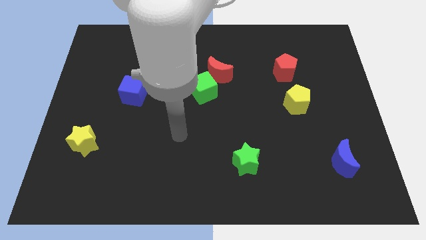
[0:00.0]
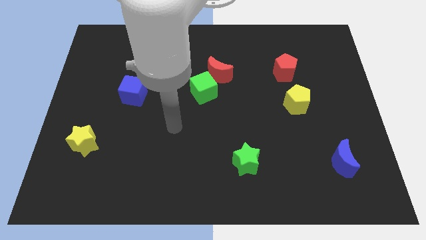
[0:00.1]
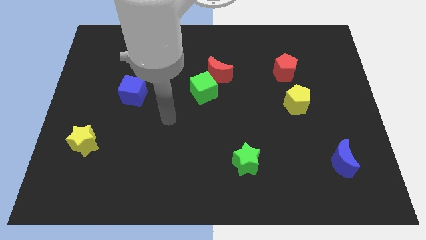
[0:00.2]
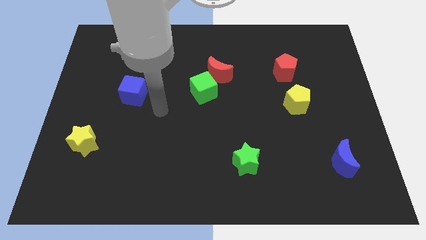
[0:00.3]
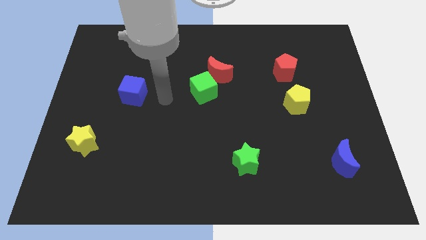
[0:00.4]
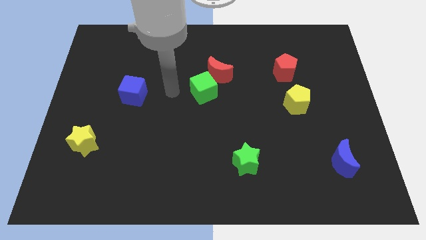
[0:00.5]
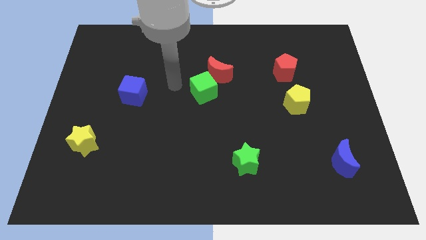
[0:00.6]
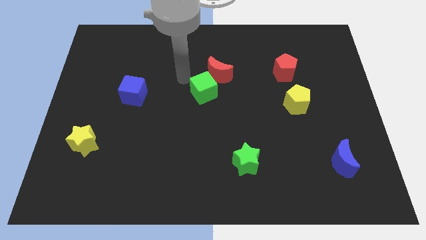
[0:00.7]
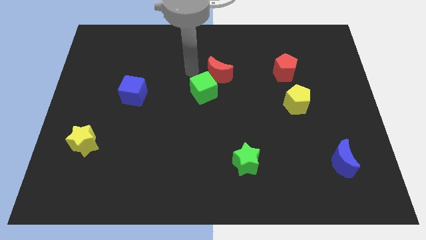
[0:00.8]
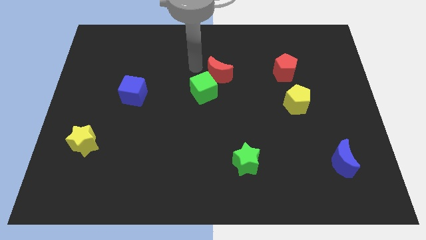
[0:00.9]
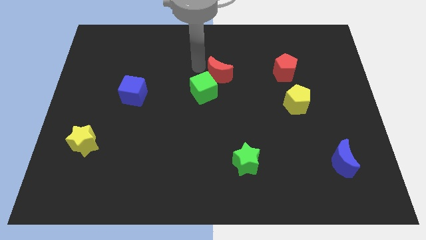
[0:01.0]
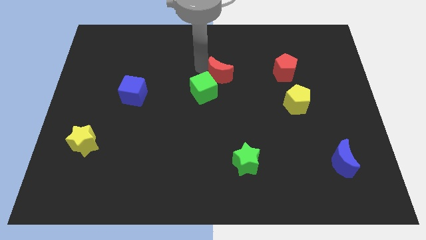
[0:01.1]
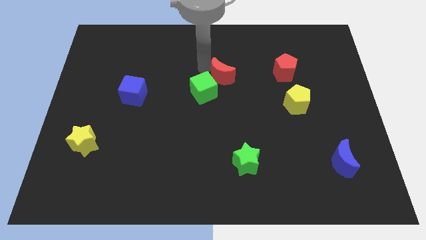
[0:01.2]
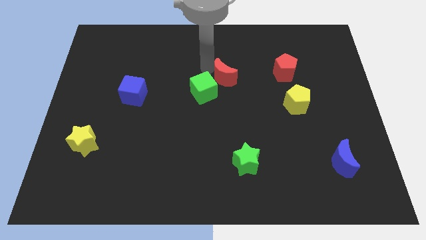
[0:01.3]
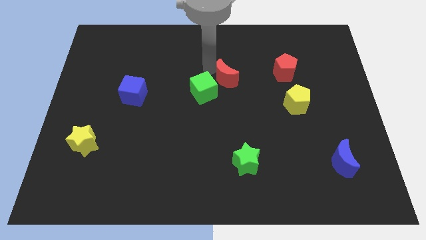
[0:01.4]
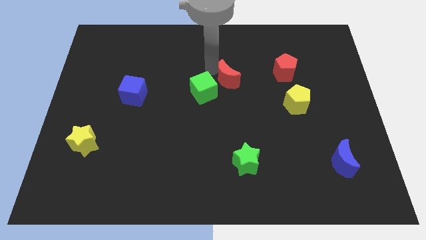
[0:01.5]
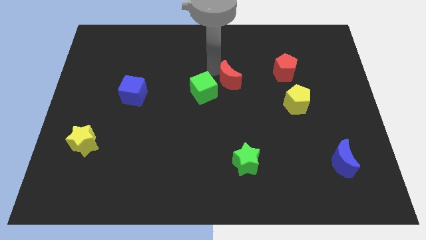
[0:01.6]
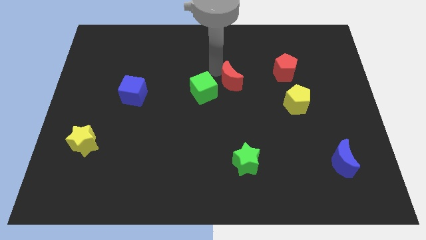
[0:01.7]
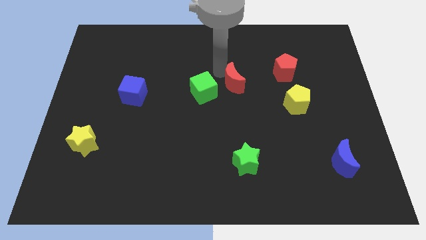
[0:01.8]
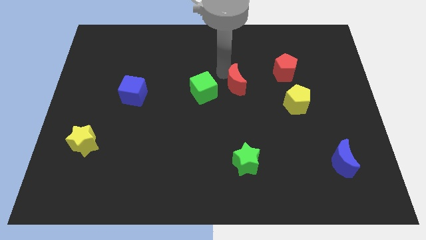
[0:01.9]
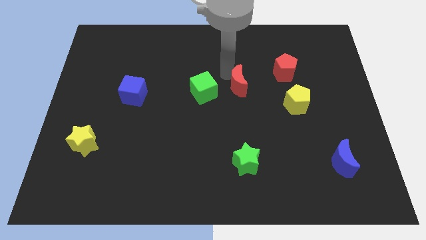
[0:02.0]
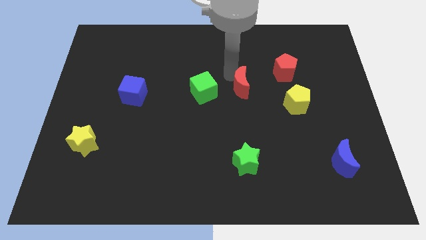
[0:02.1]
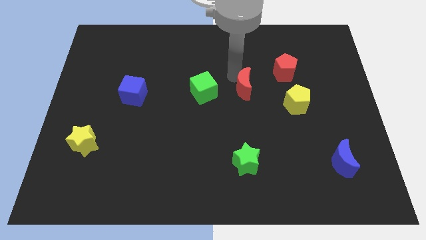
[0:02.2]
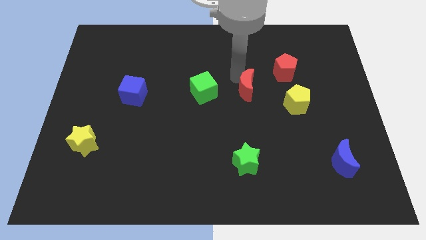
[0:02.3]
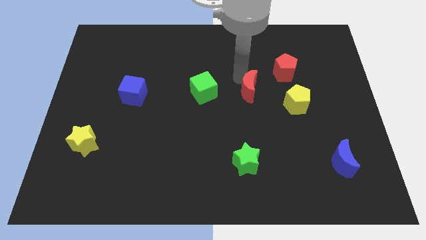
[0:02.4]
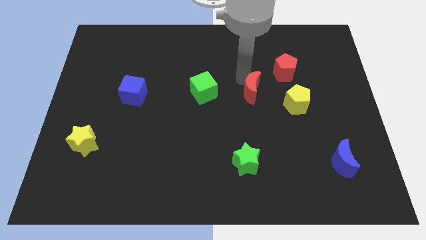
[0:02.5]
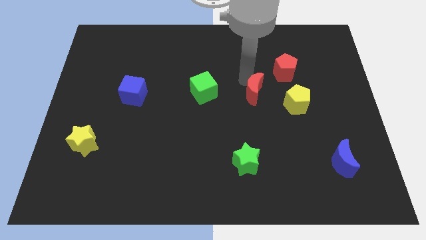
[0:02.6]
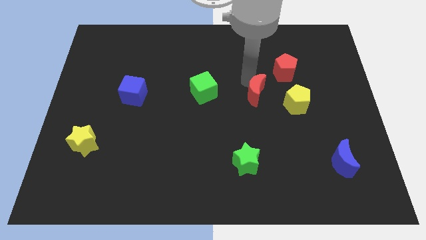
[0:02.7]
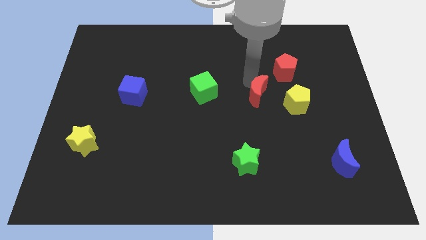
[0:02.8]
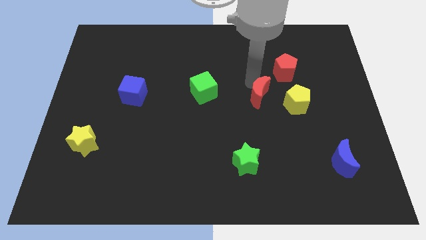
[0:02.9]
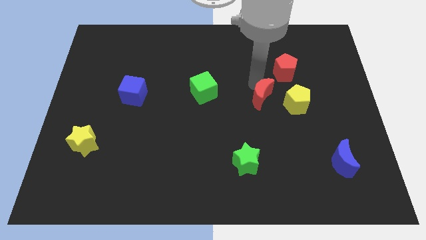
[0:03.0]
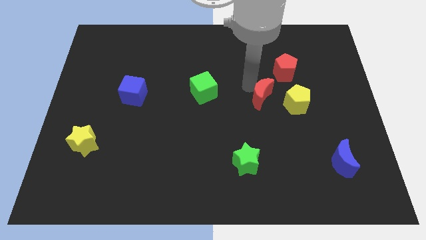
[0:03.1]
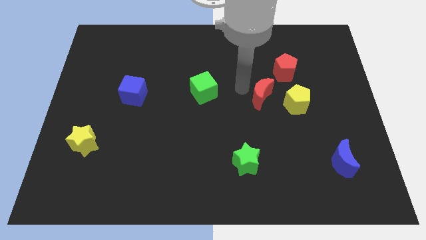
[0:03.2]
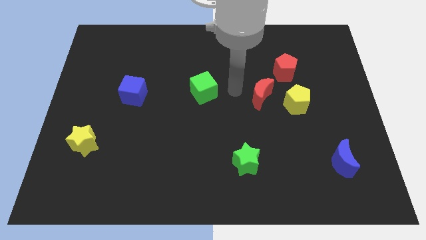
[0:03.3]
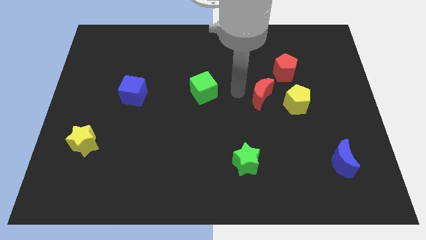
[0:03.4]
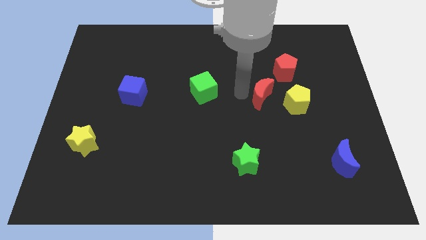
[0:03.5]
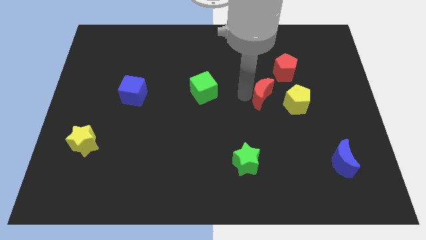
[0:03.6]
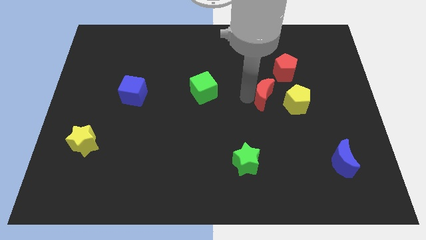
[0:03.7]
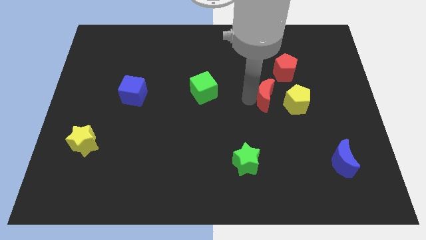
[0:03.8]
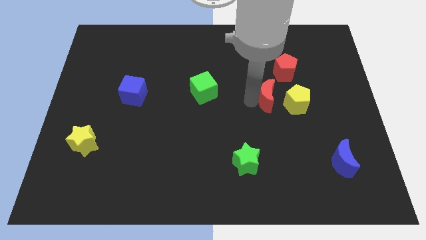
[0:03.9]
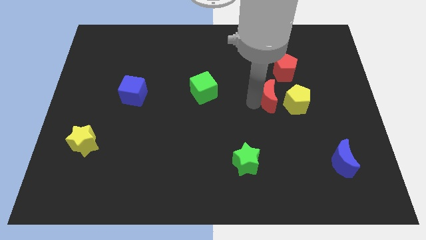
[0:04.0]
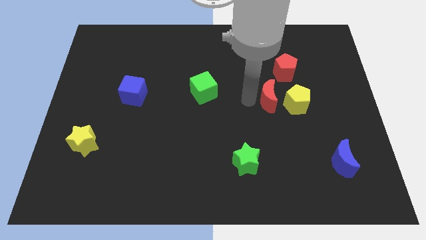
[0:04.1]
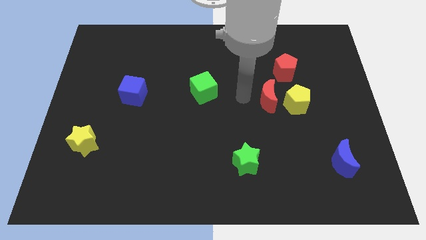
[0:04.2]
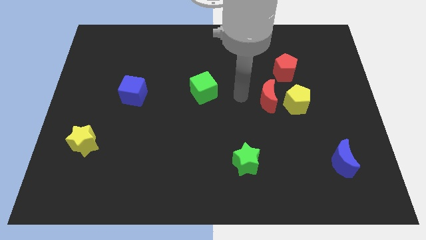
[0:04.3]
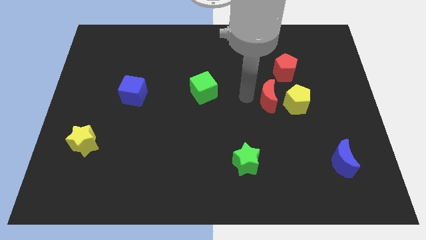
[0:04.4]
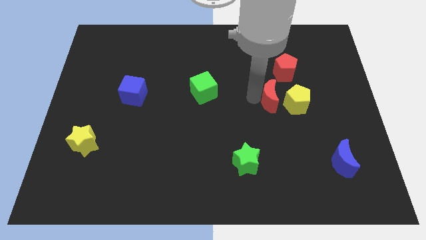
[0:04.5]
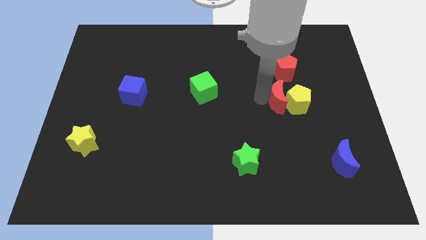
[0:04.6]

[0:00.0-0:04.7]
slide the red moon next to the yellow pentagon

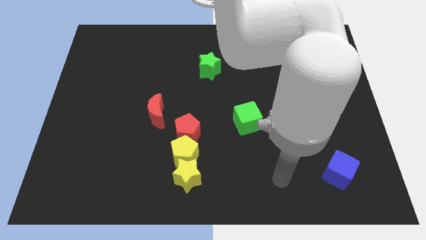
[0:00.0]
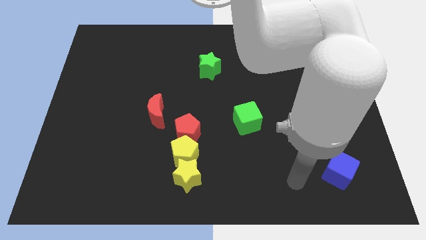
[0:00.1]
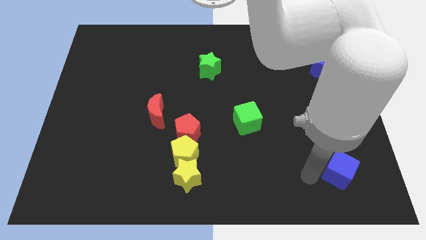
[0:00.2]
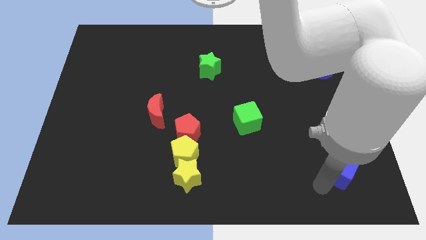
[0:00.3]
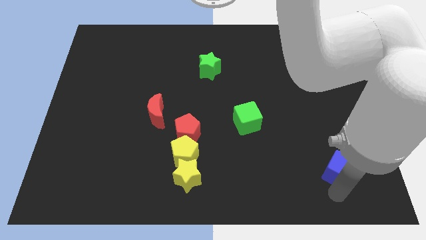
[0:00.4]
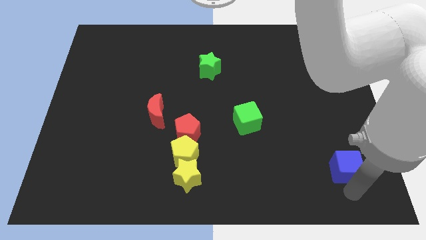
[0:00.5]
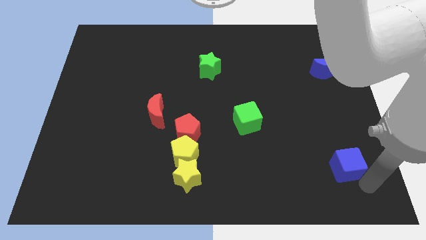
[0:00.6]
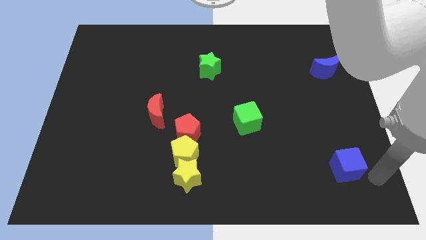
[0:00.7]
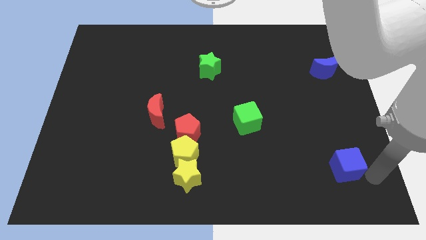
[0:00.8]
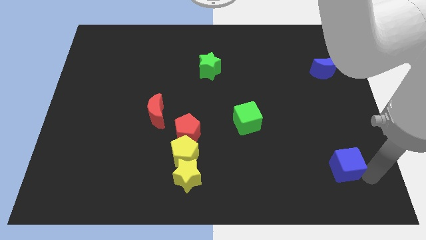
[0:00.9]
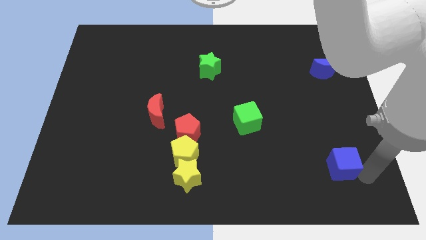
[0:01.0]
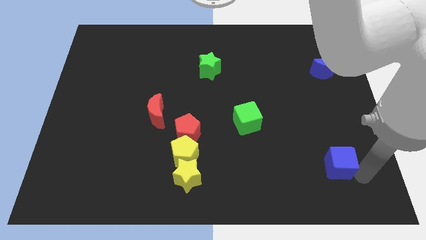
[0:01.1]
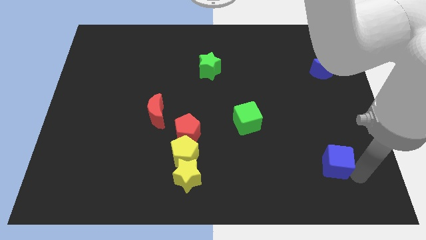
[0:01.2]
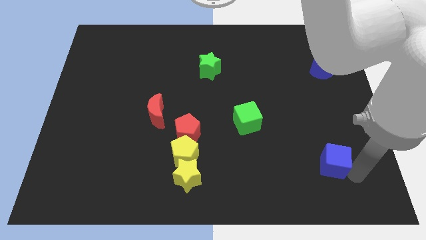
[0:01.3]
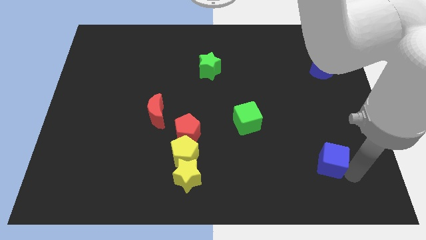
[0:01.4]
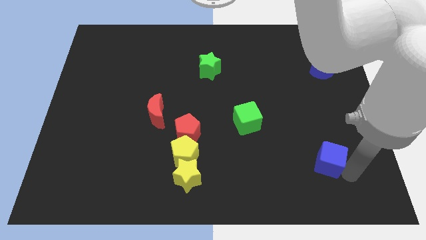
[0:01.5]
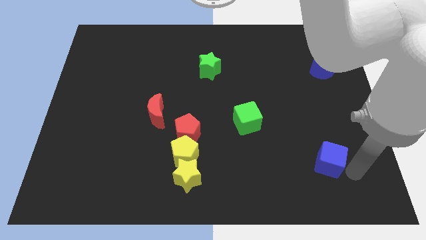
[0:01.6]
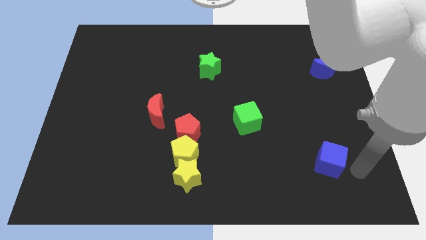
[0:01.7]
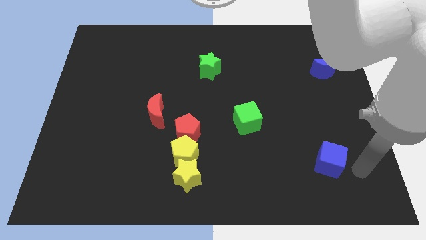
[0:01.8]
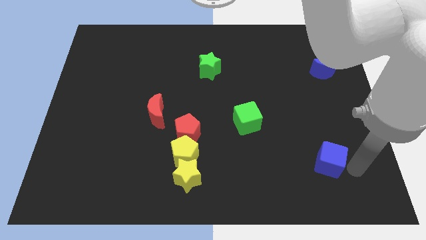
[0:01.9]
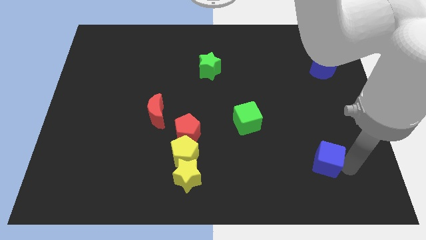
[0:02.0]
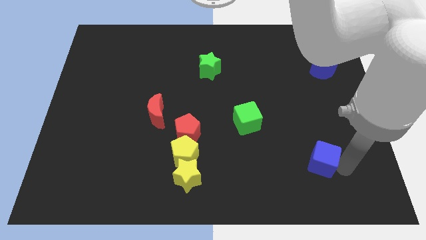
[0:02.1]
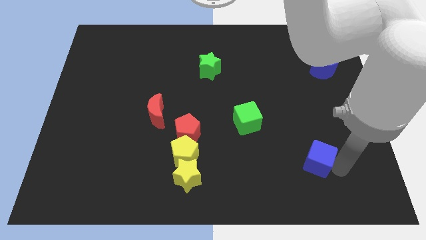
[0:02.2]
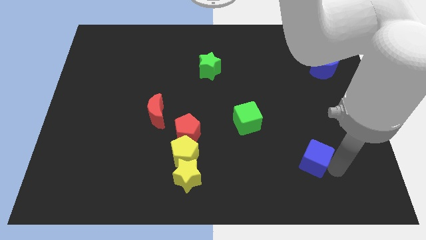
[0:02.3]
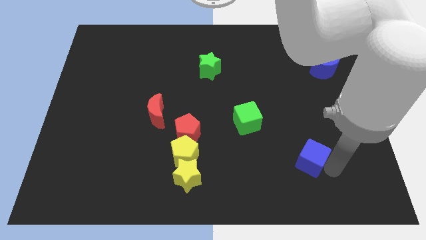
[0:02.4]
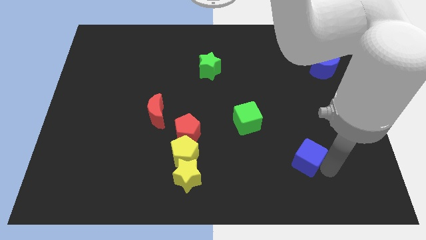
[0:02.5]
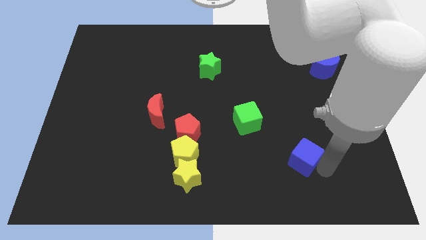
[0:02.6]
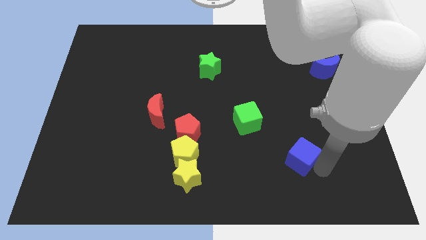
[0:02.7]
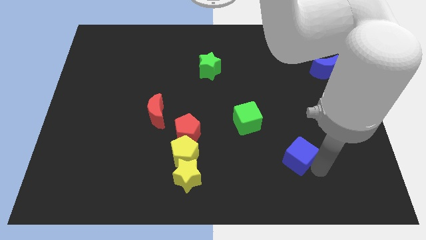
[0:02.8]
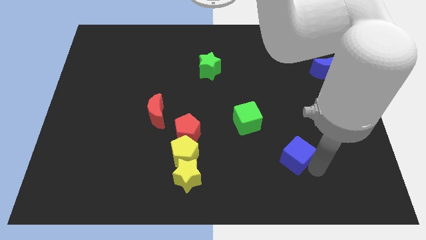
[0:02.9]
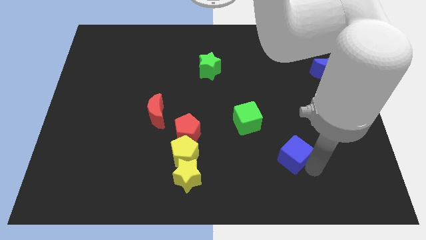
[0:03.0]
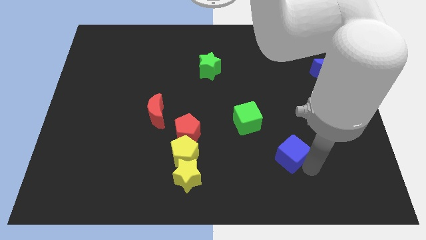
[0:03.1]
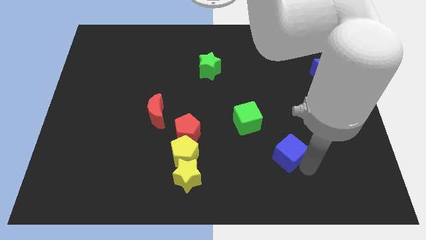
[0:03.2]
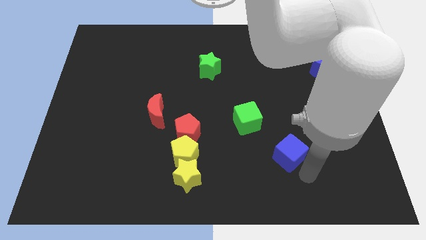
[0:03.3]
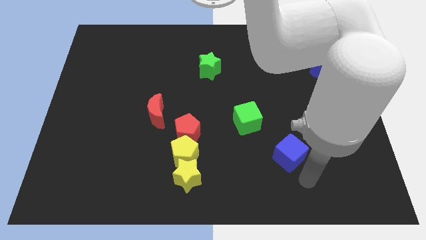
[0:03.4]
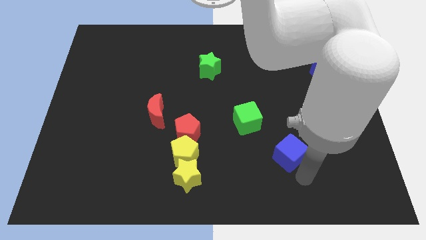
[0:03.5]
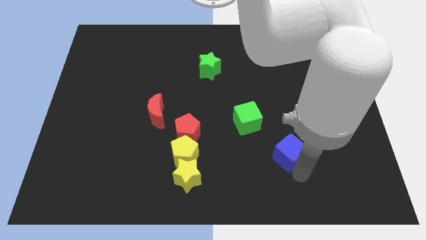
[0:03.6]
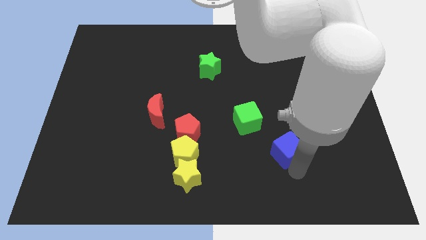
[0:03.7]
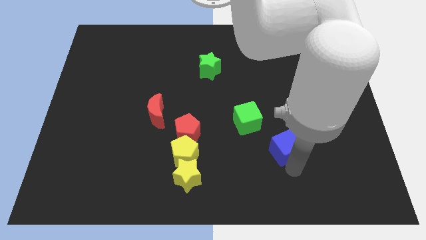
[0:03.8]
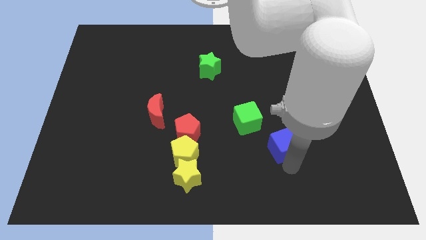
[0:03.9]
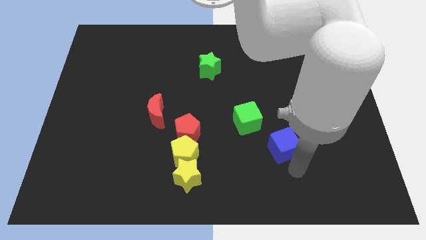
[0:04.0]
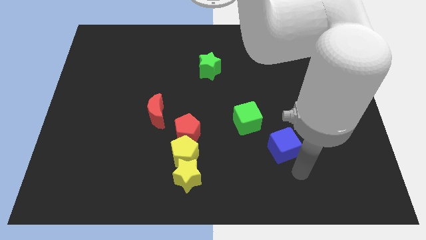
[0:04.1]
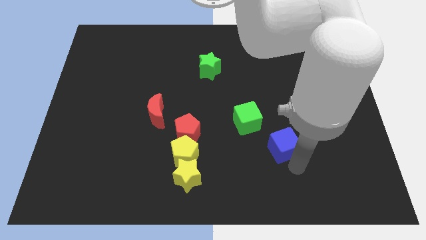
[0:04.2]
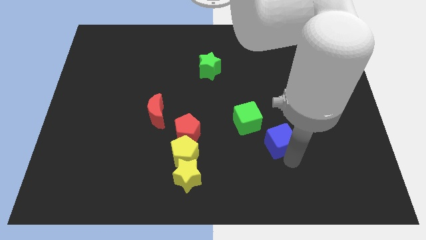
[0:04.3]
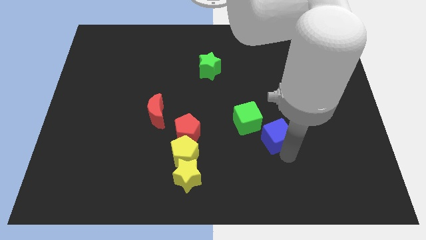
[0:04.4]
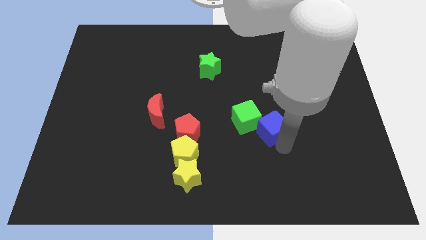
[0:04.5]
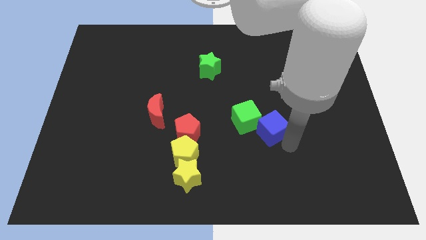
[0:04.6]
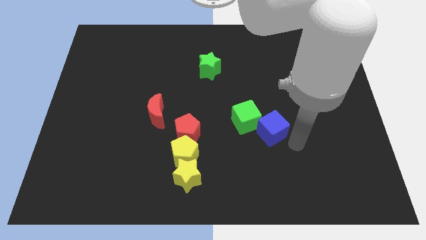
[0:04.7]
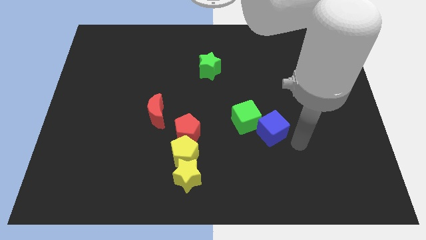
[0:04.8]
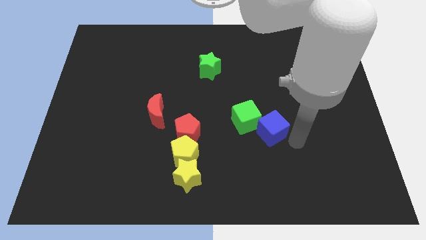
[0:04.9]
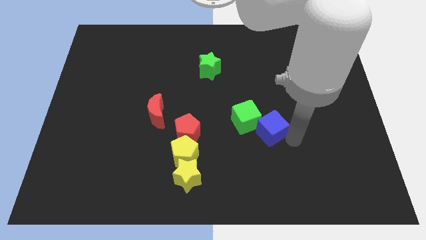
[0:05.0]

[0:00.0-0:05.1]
move the blue cube close to the green cube
